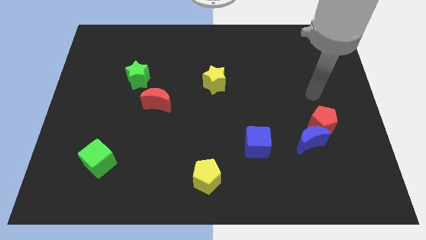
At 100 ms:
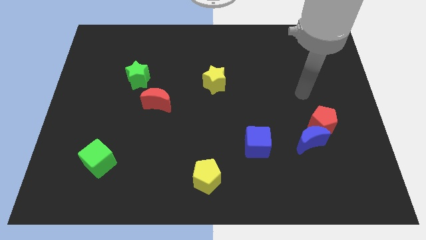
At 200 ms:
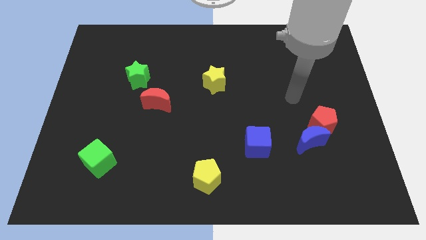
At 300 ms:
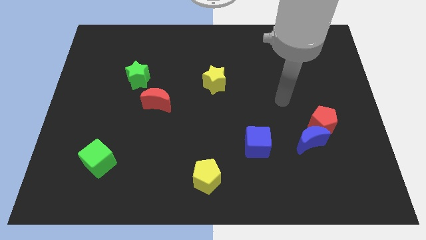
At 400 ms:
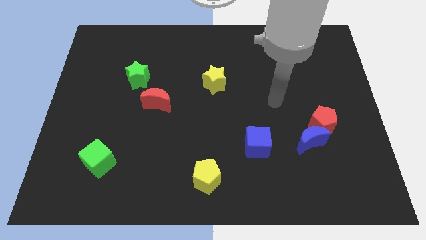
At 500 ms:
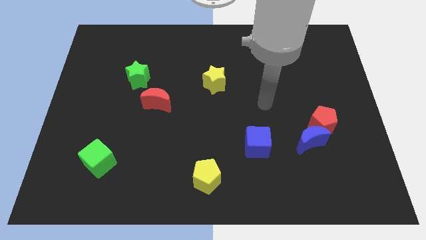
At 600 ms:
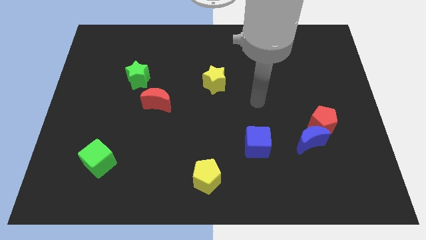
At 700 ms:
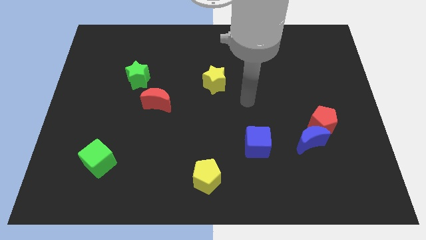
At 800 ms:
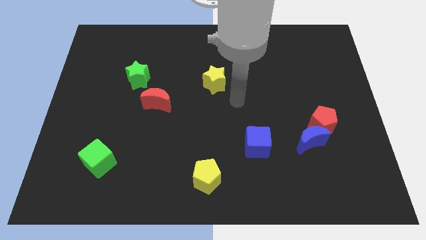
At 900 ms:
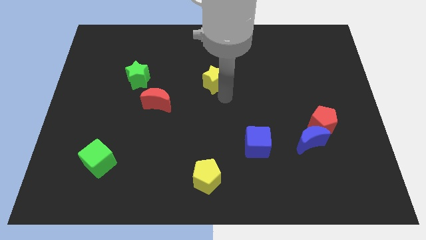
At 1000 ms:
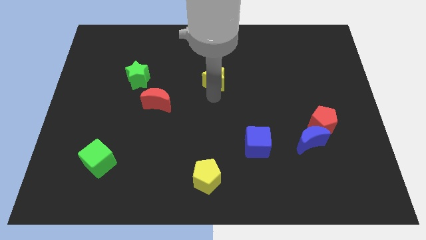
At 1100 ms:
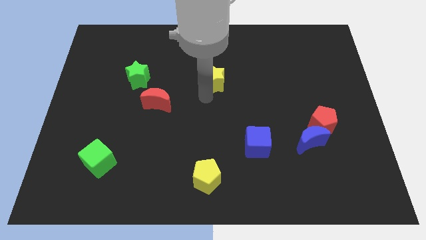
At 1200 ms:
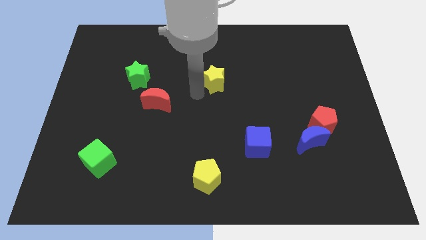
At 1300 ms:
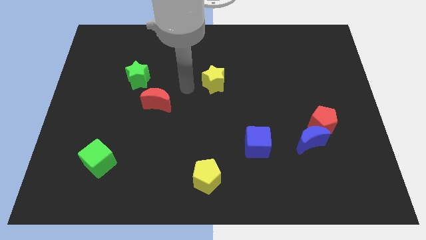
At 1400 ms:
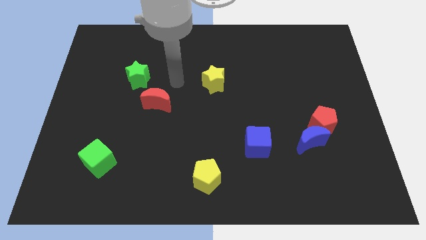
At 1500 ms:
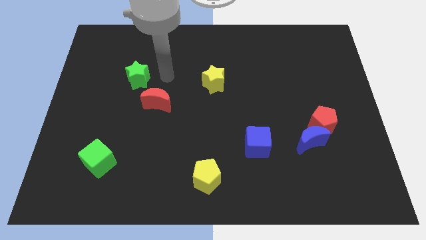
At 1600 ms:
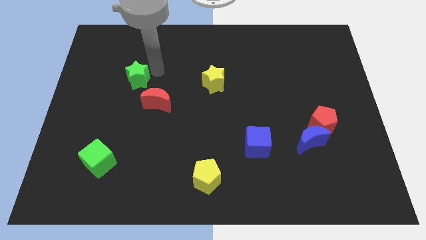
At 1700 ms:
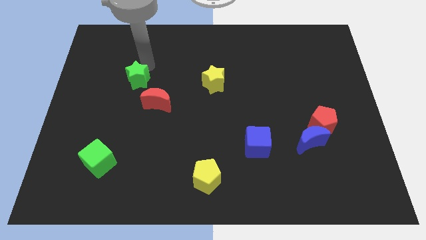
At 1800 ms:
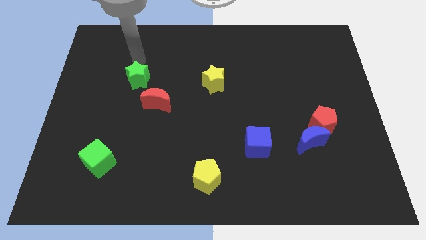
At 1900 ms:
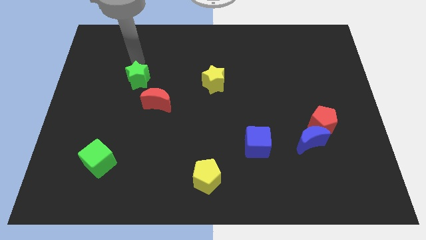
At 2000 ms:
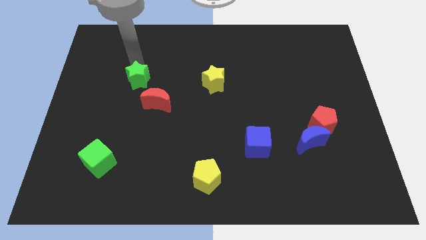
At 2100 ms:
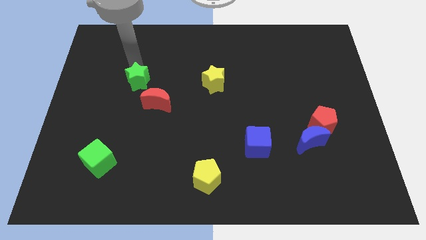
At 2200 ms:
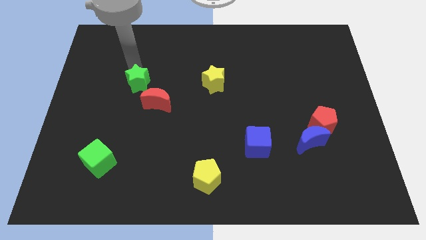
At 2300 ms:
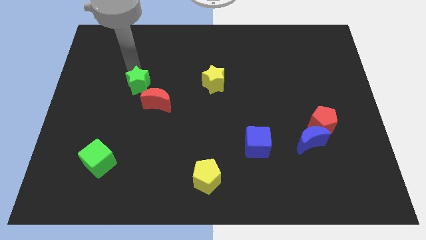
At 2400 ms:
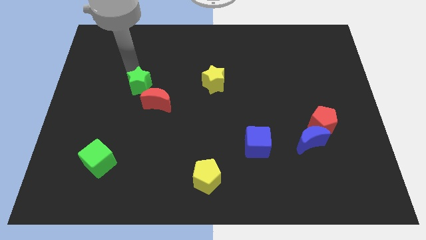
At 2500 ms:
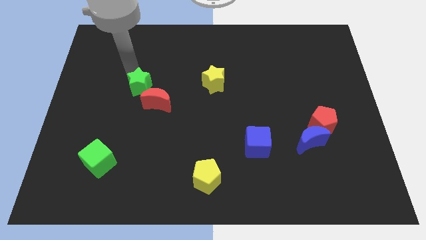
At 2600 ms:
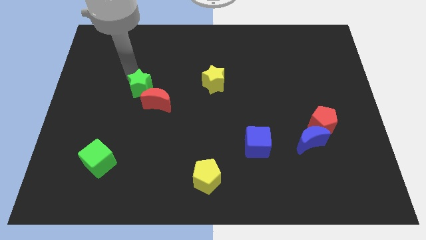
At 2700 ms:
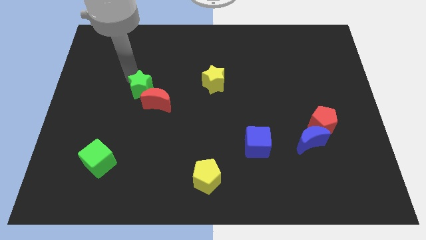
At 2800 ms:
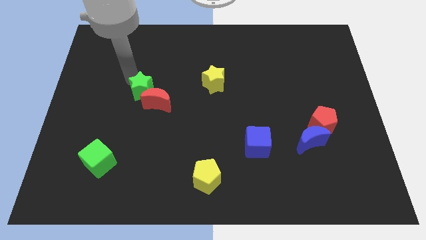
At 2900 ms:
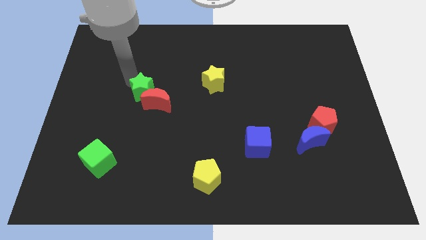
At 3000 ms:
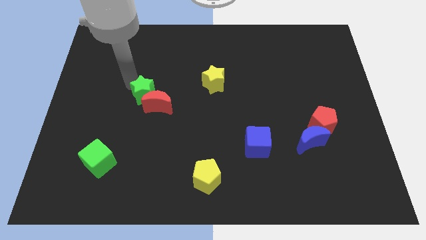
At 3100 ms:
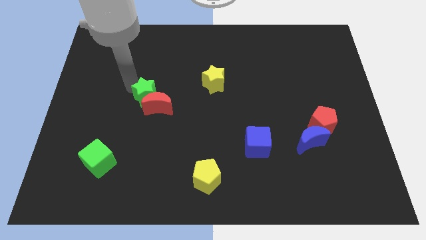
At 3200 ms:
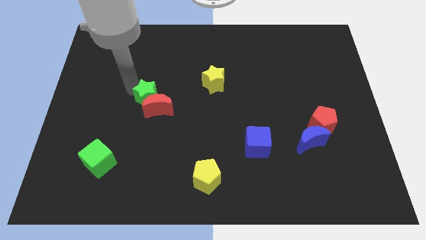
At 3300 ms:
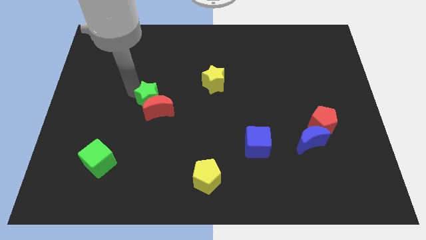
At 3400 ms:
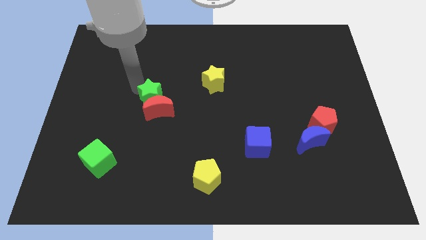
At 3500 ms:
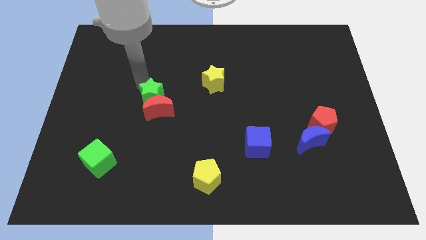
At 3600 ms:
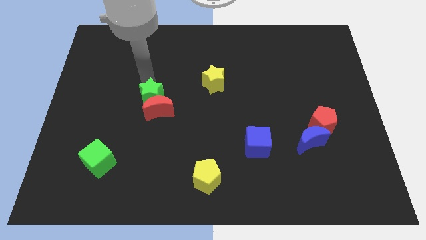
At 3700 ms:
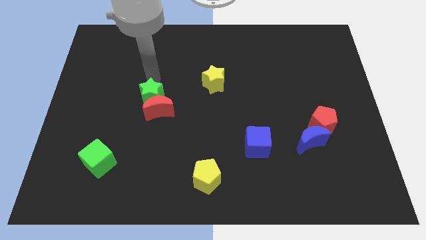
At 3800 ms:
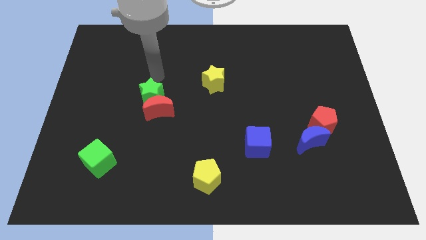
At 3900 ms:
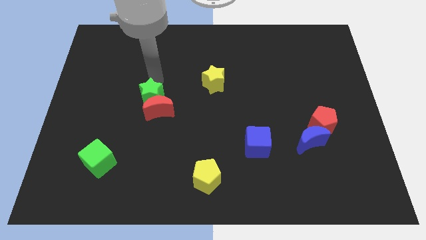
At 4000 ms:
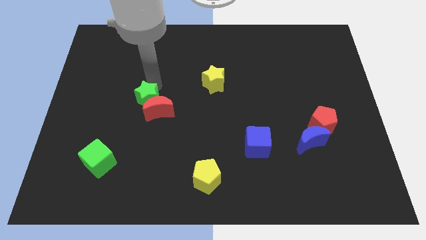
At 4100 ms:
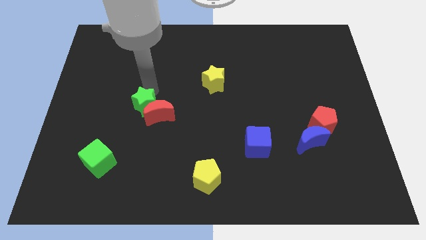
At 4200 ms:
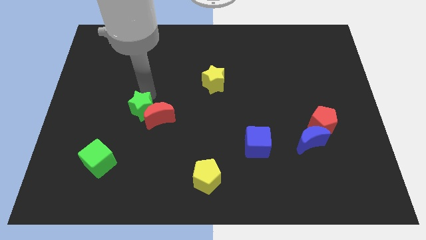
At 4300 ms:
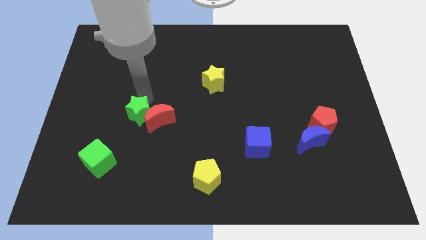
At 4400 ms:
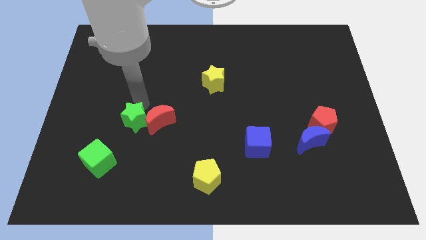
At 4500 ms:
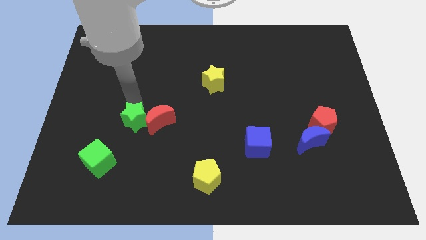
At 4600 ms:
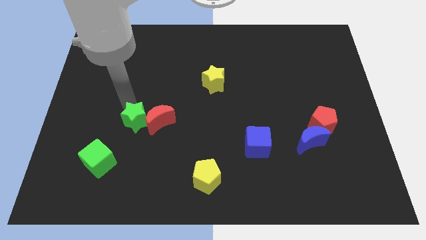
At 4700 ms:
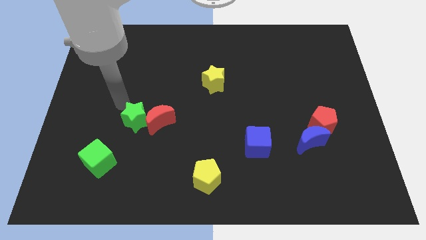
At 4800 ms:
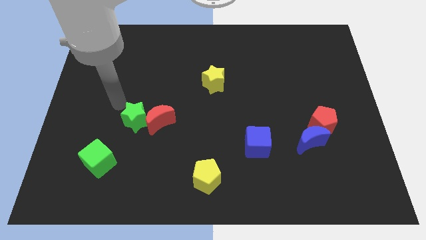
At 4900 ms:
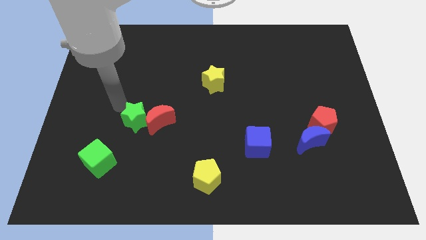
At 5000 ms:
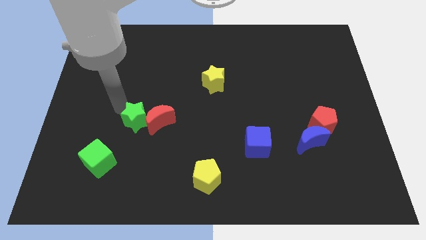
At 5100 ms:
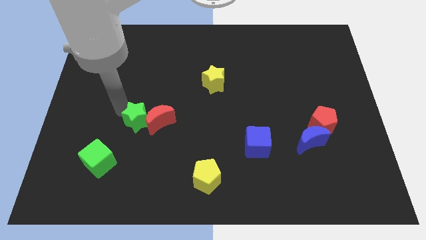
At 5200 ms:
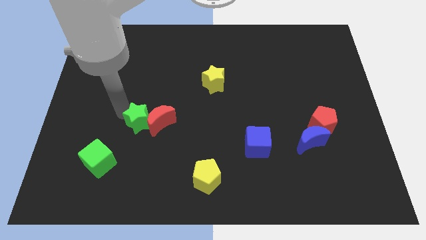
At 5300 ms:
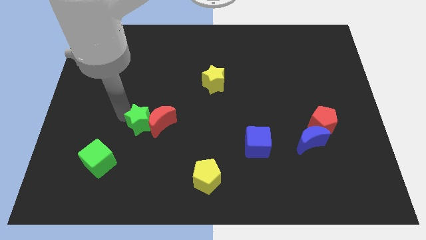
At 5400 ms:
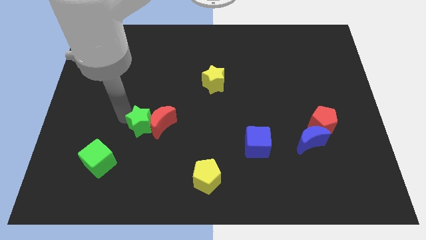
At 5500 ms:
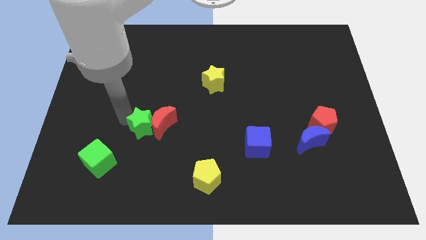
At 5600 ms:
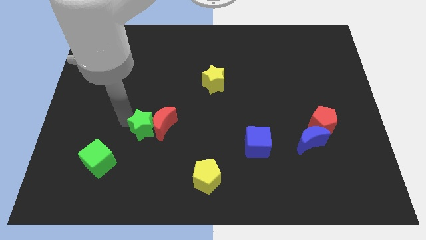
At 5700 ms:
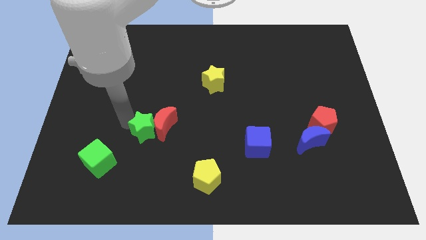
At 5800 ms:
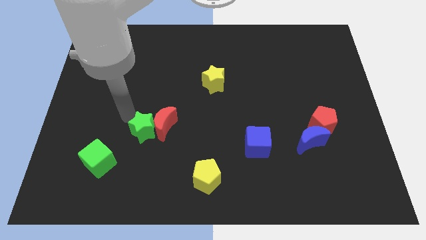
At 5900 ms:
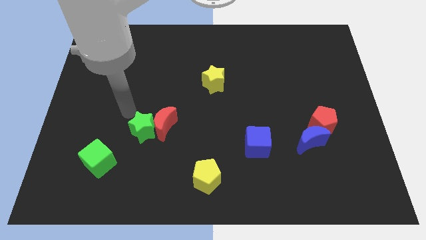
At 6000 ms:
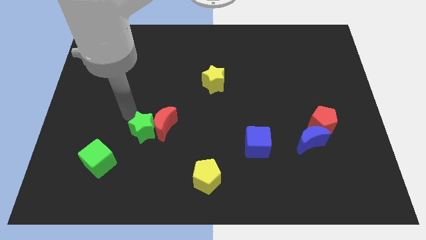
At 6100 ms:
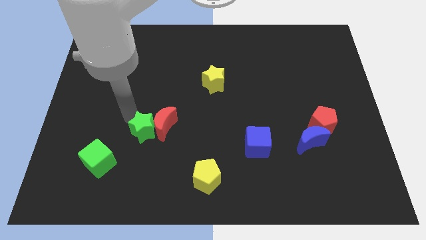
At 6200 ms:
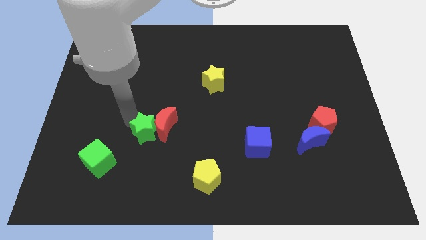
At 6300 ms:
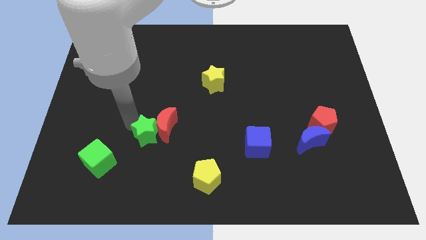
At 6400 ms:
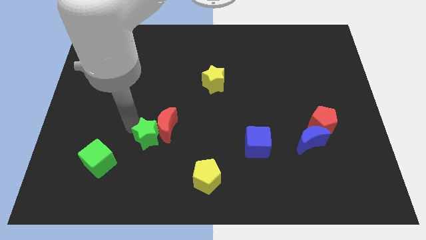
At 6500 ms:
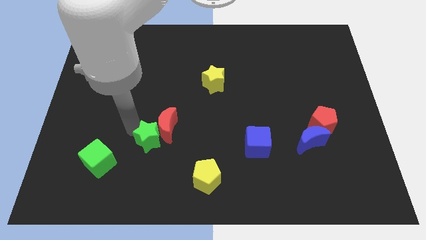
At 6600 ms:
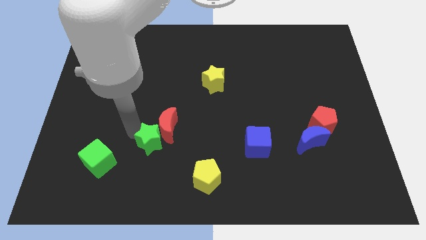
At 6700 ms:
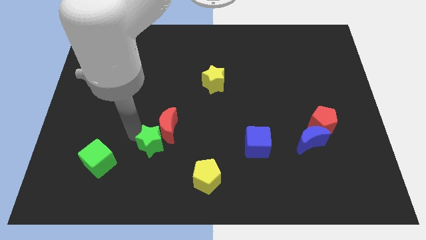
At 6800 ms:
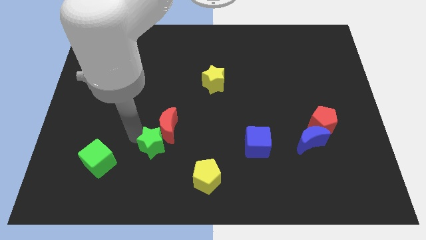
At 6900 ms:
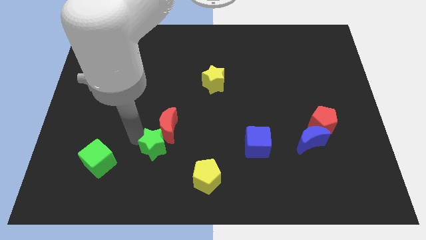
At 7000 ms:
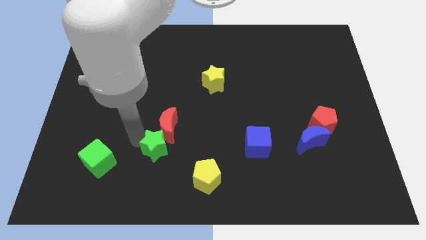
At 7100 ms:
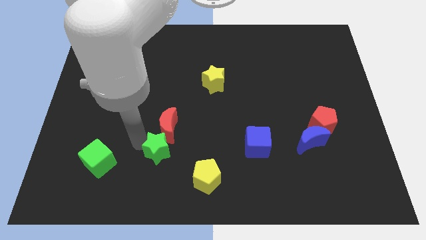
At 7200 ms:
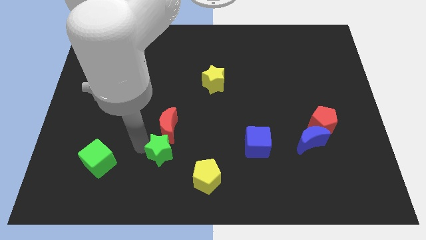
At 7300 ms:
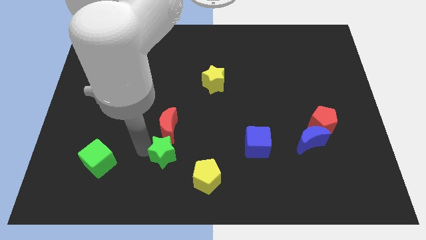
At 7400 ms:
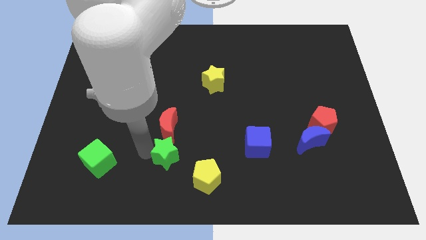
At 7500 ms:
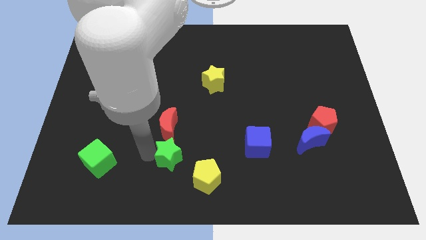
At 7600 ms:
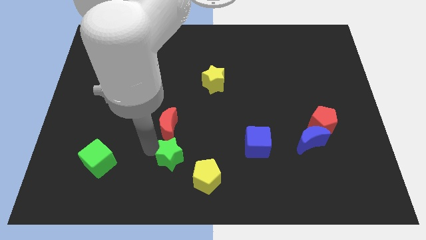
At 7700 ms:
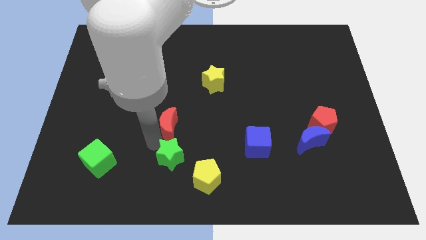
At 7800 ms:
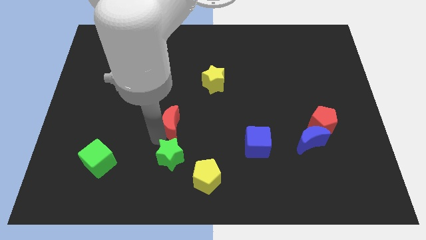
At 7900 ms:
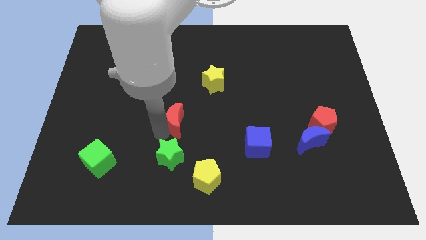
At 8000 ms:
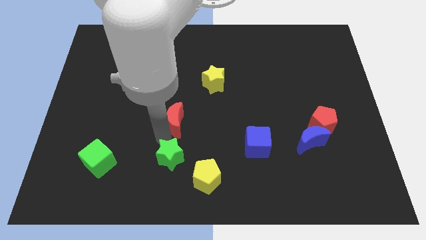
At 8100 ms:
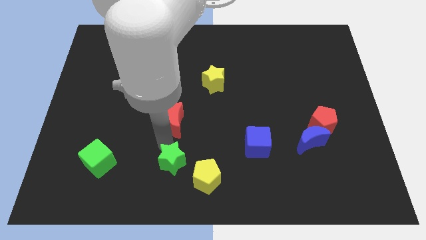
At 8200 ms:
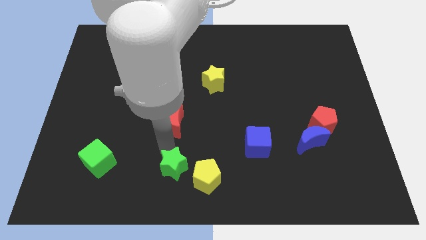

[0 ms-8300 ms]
put the green star to the bottom side
